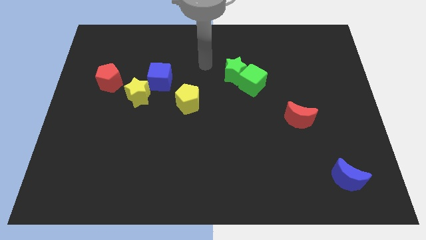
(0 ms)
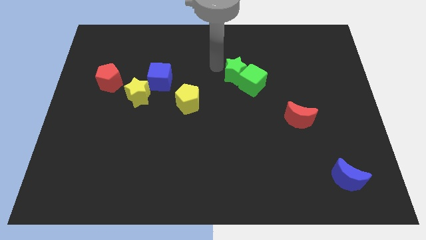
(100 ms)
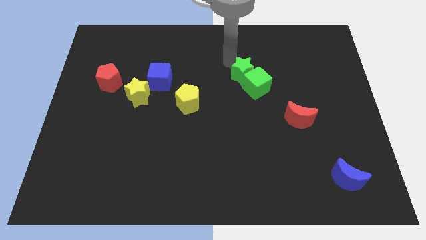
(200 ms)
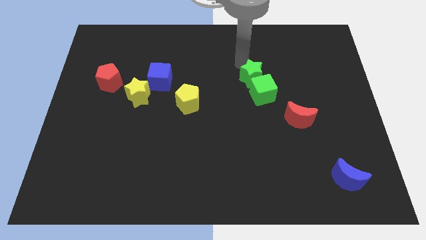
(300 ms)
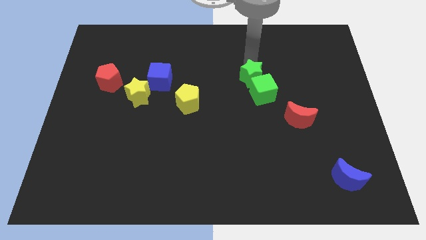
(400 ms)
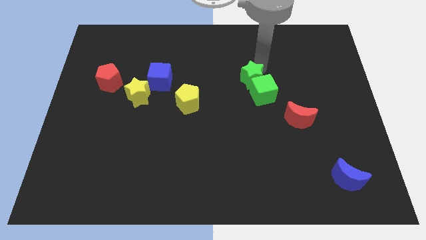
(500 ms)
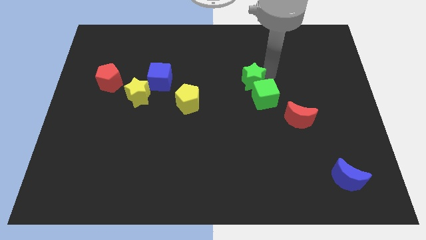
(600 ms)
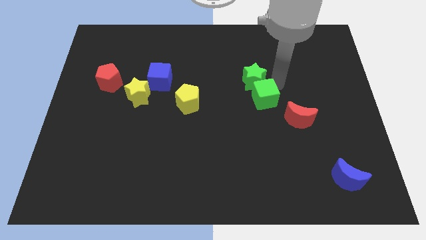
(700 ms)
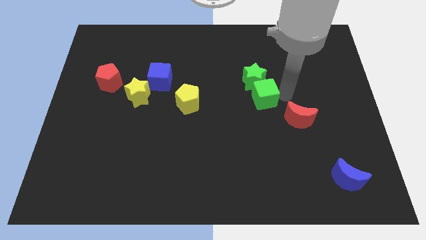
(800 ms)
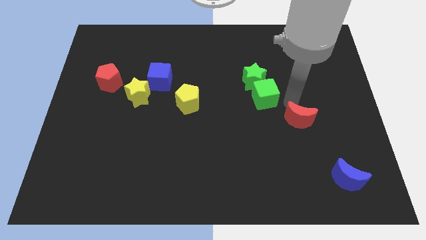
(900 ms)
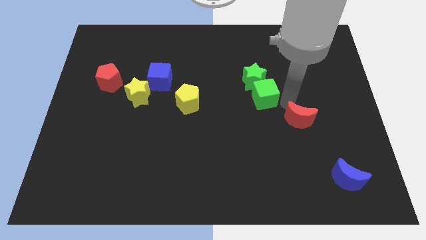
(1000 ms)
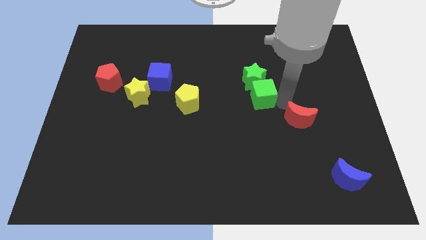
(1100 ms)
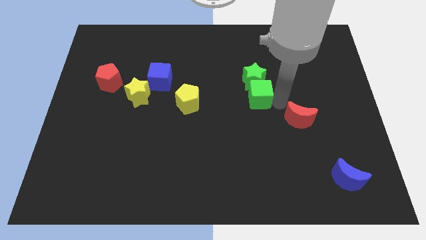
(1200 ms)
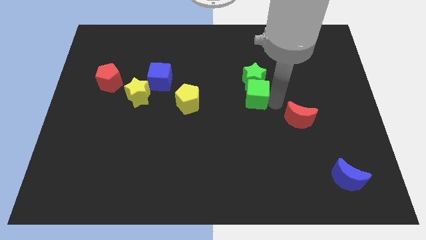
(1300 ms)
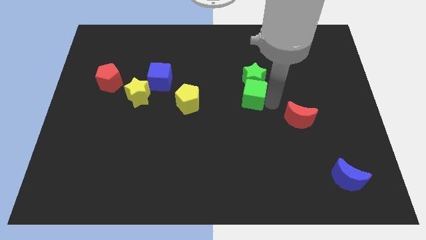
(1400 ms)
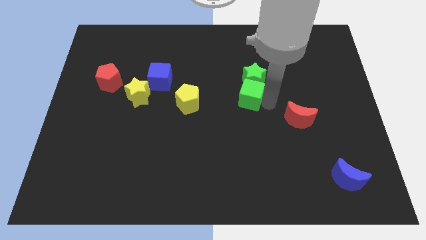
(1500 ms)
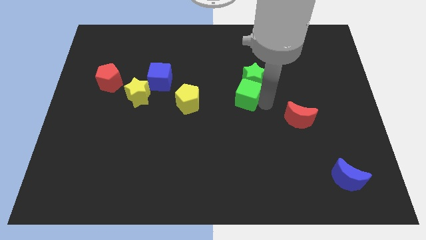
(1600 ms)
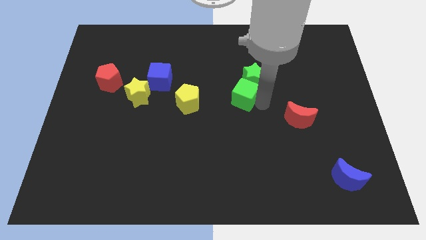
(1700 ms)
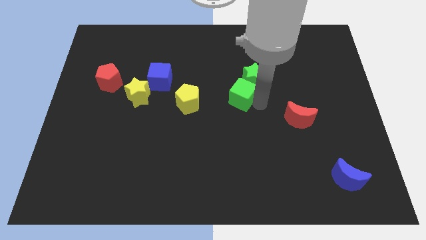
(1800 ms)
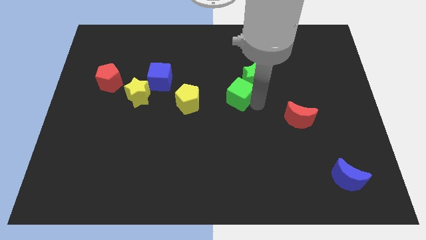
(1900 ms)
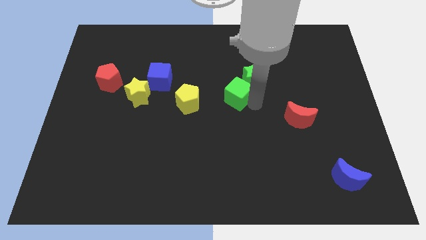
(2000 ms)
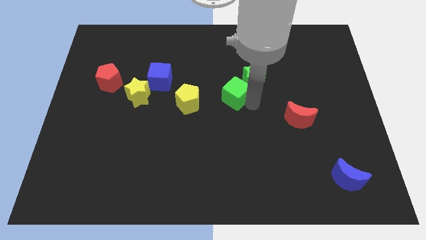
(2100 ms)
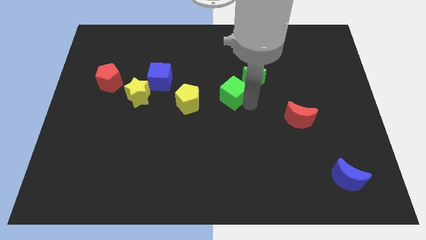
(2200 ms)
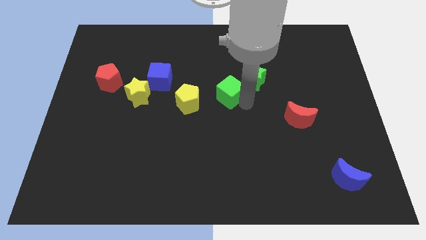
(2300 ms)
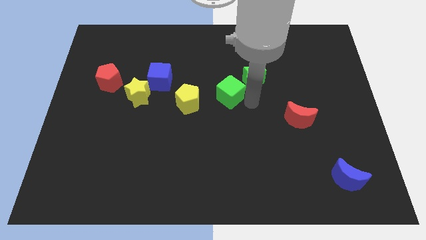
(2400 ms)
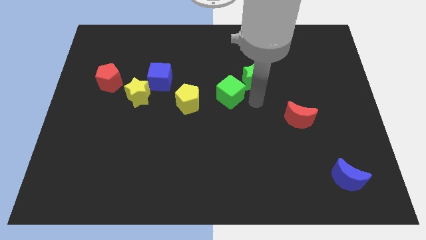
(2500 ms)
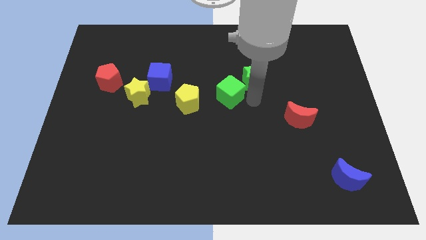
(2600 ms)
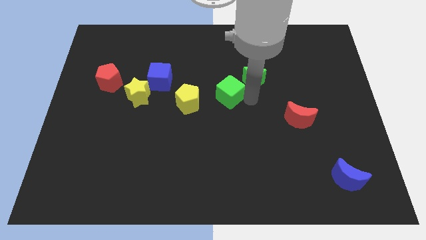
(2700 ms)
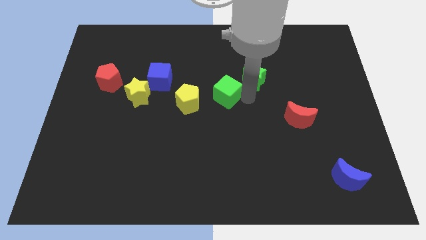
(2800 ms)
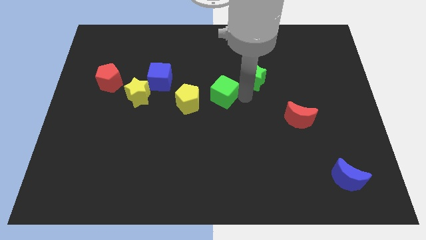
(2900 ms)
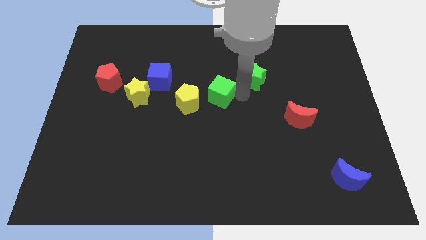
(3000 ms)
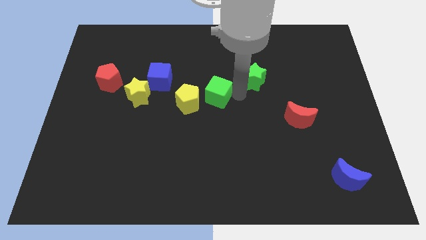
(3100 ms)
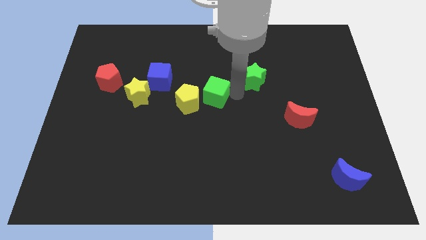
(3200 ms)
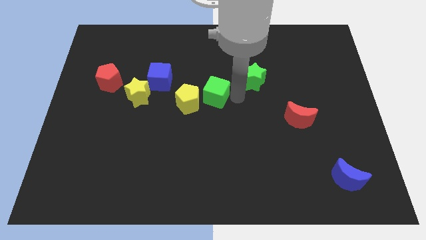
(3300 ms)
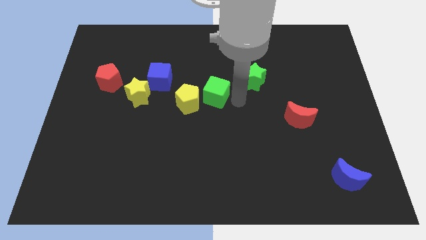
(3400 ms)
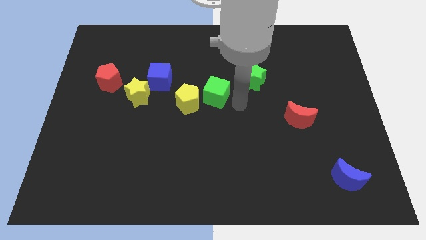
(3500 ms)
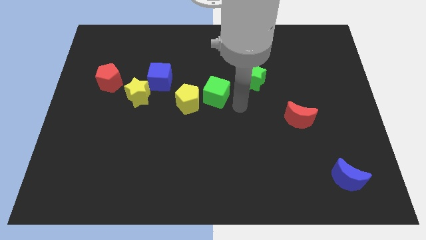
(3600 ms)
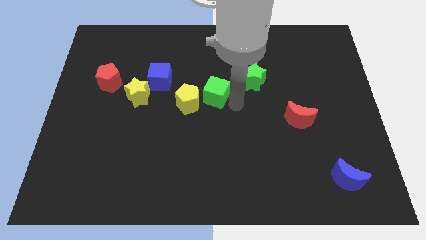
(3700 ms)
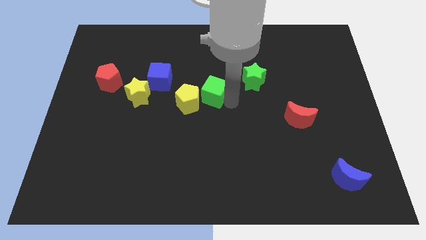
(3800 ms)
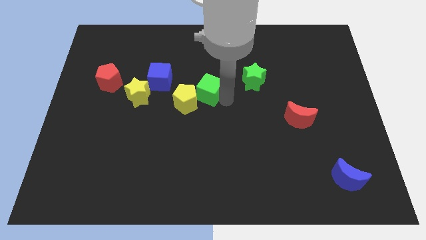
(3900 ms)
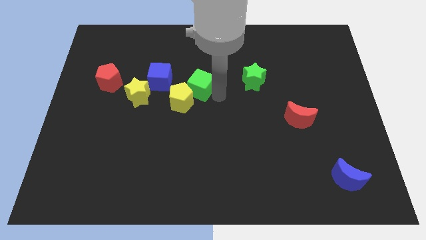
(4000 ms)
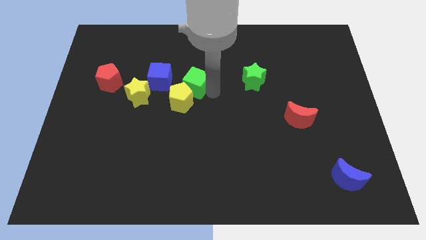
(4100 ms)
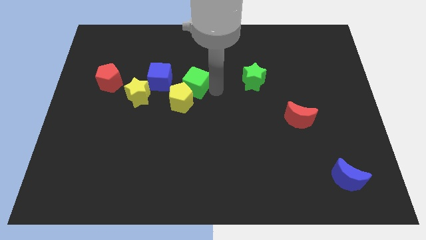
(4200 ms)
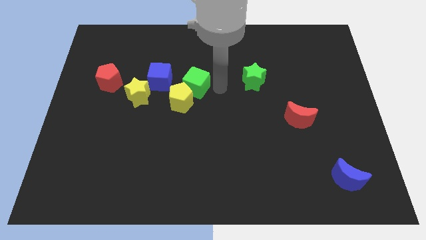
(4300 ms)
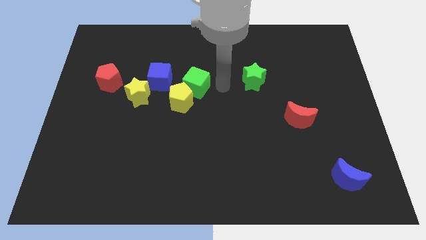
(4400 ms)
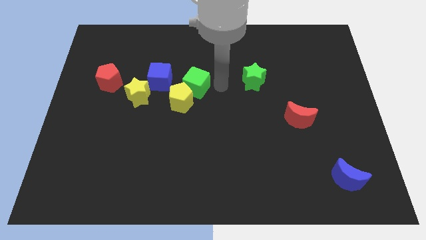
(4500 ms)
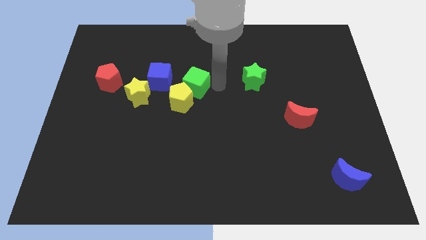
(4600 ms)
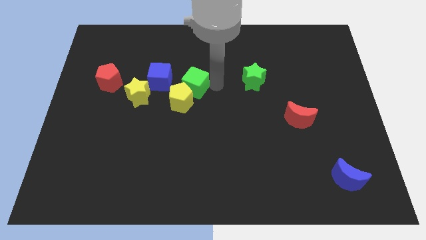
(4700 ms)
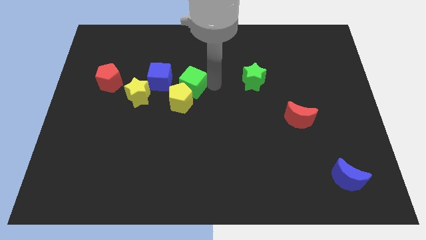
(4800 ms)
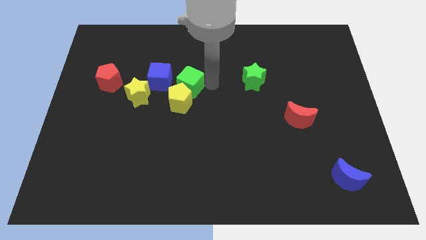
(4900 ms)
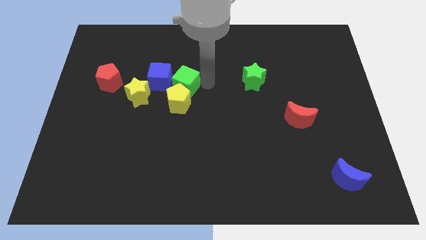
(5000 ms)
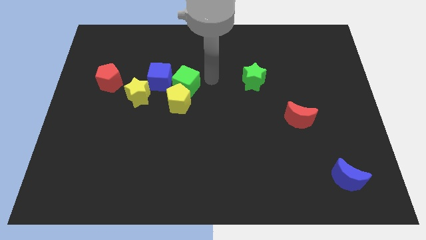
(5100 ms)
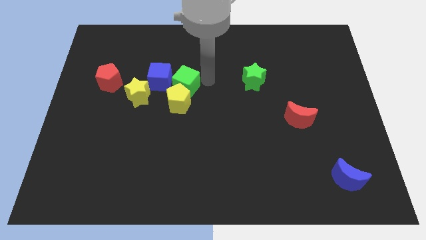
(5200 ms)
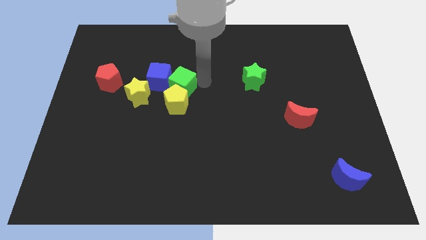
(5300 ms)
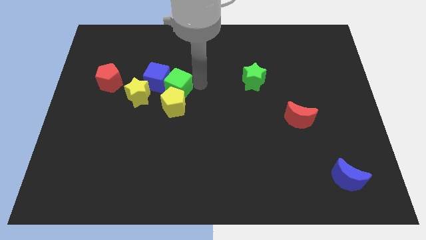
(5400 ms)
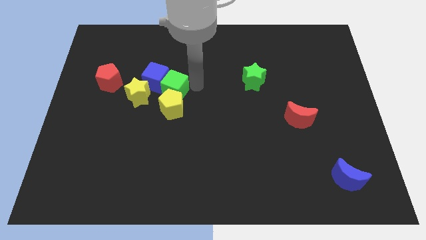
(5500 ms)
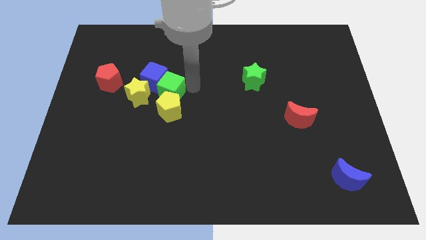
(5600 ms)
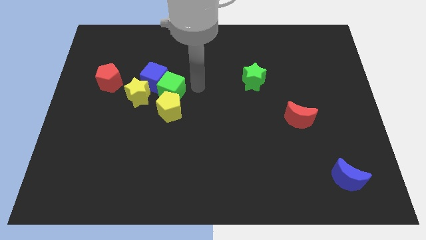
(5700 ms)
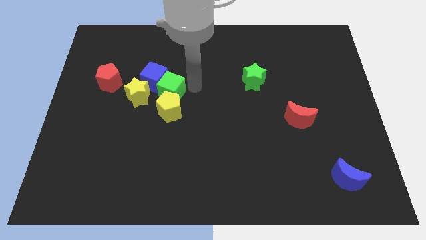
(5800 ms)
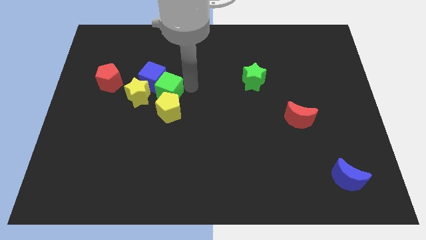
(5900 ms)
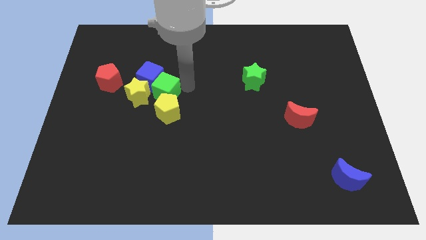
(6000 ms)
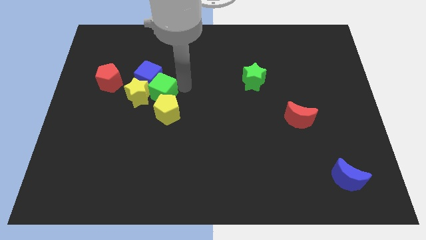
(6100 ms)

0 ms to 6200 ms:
put the green cube next to the yellow star
